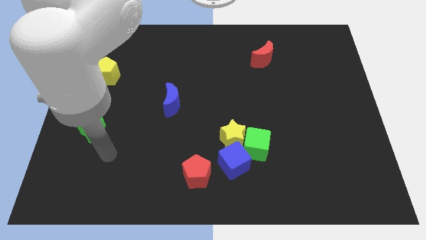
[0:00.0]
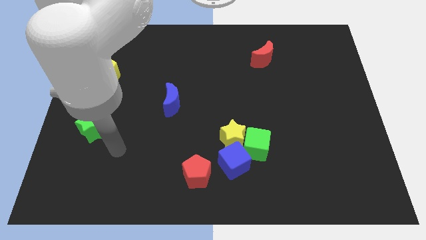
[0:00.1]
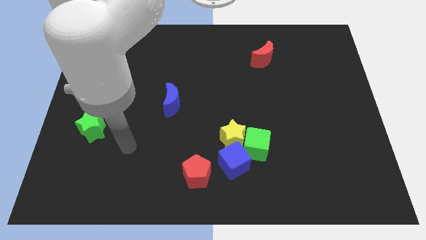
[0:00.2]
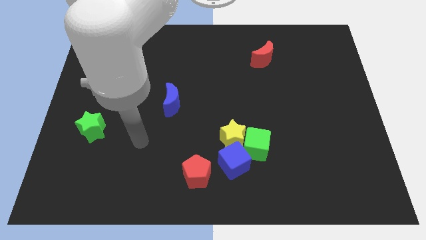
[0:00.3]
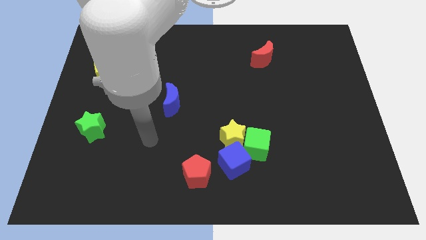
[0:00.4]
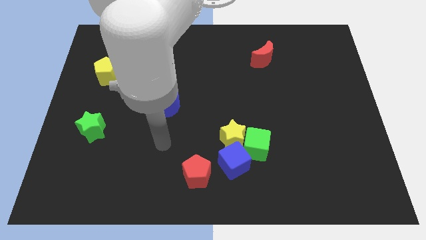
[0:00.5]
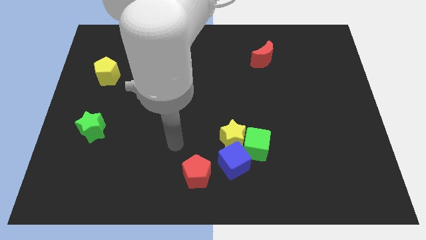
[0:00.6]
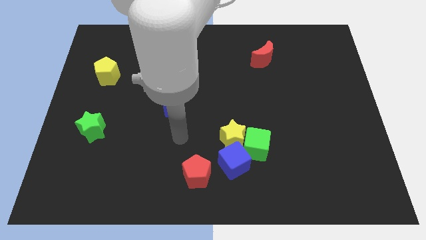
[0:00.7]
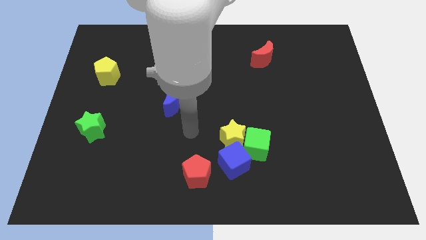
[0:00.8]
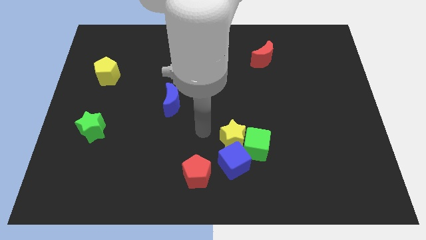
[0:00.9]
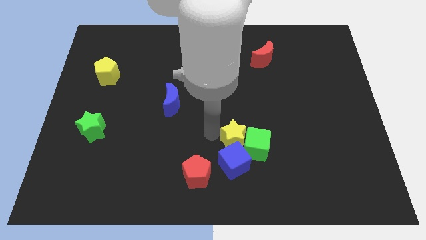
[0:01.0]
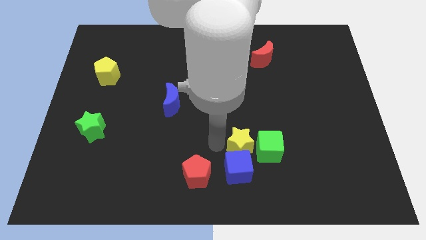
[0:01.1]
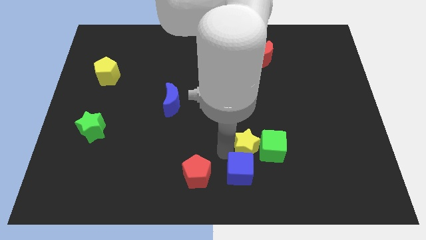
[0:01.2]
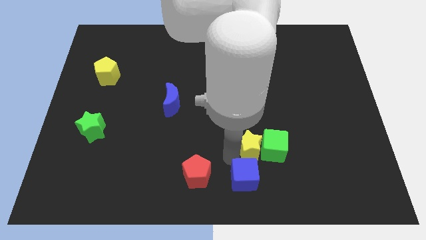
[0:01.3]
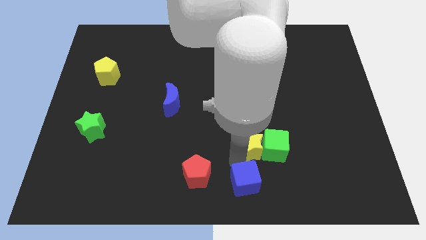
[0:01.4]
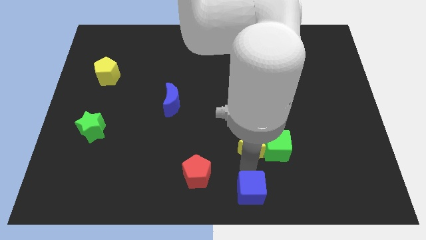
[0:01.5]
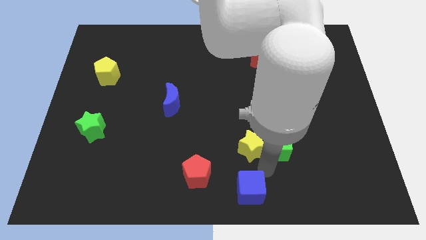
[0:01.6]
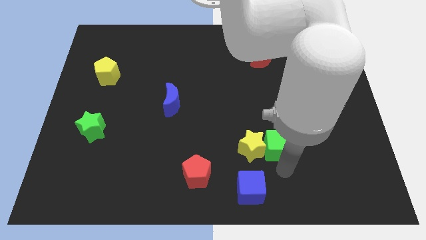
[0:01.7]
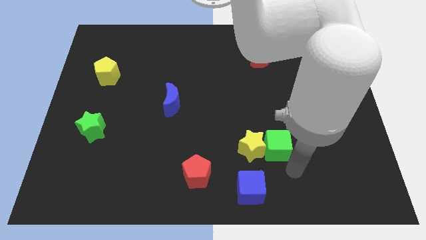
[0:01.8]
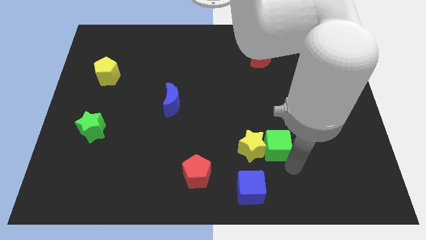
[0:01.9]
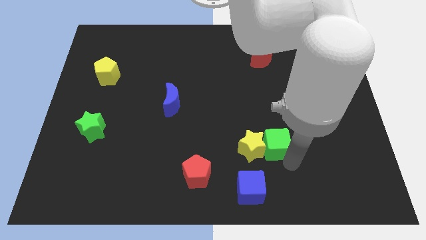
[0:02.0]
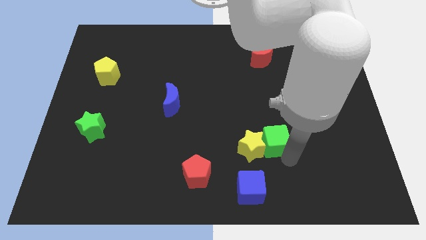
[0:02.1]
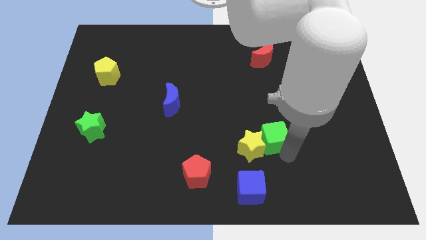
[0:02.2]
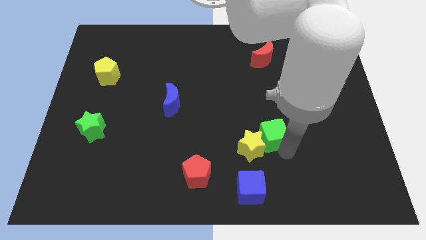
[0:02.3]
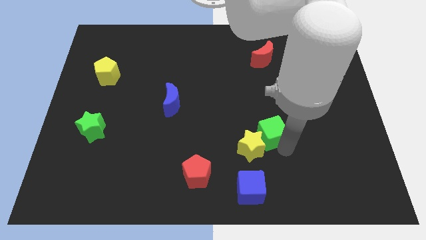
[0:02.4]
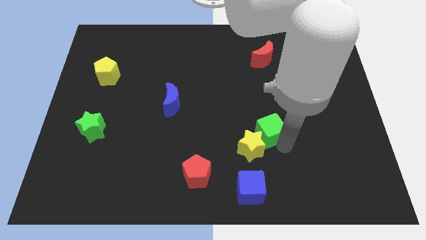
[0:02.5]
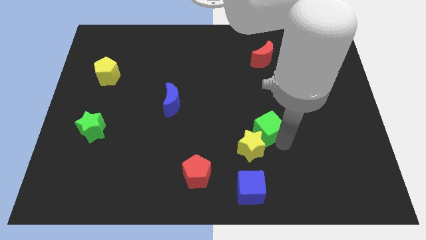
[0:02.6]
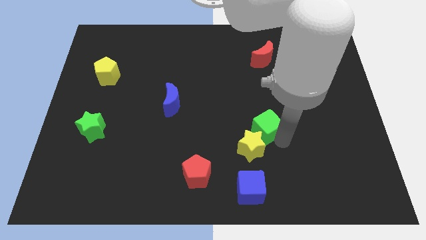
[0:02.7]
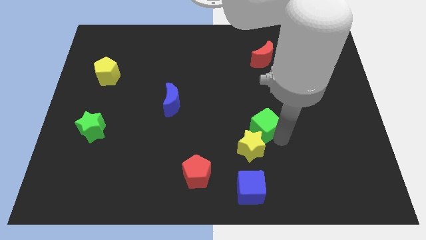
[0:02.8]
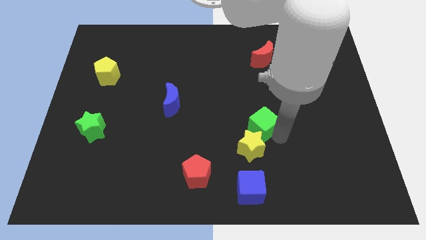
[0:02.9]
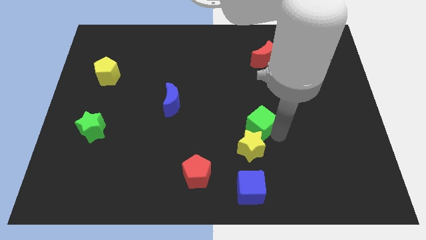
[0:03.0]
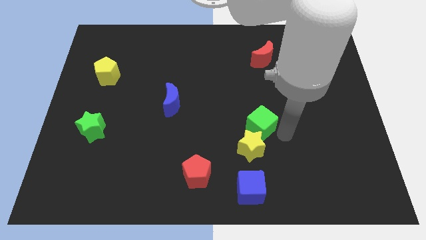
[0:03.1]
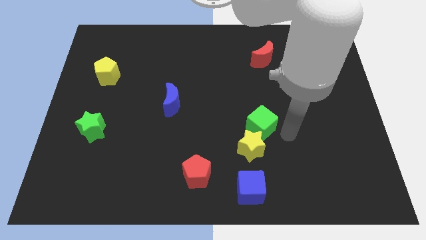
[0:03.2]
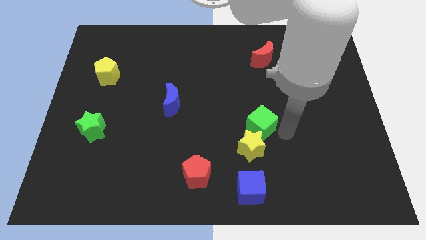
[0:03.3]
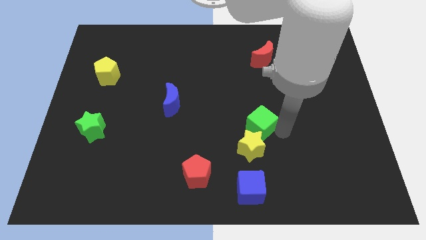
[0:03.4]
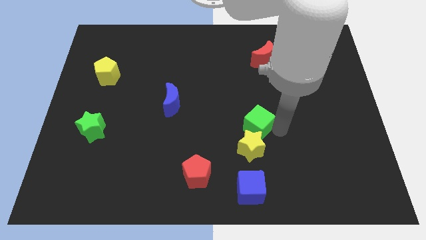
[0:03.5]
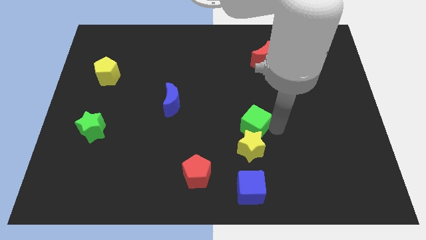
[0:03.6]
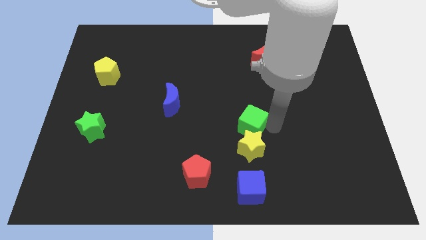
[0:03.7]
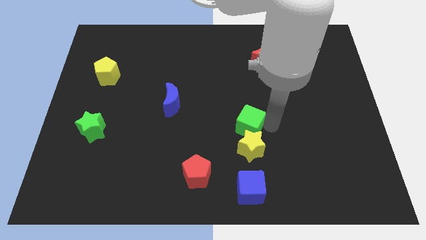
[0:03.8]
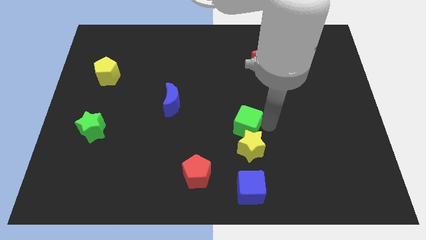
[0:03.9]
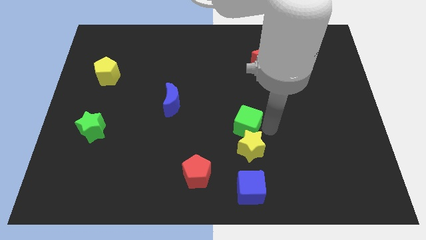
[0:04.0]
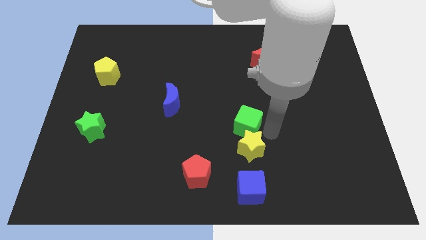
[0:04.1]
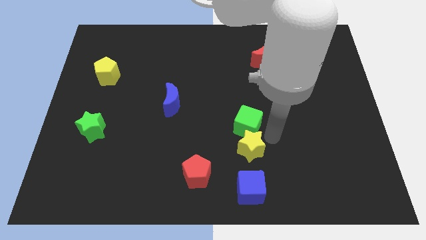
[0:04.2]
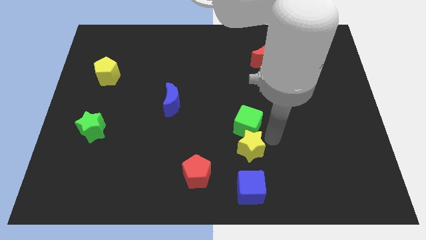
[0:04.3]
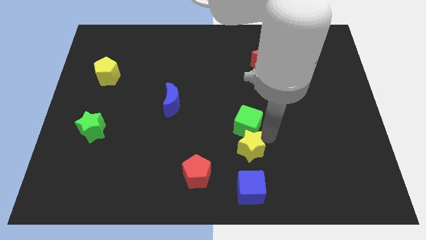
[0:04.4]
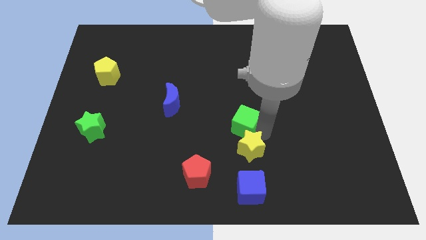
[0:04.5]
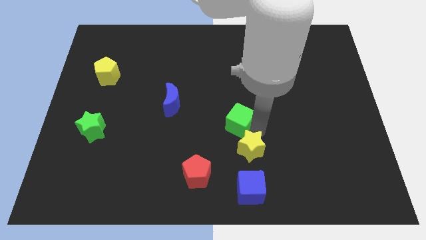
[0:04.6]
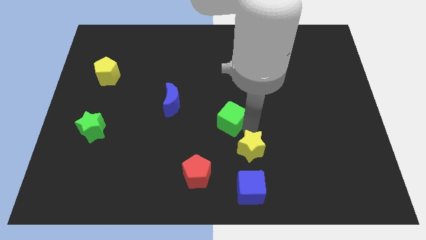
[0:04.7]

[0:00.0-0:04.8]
push the green cube somewhat up and then left

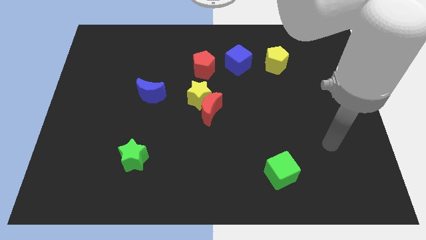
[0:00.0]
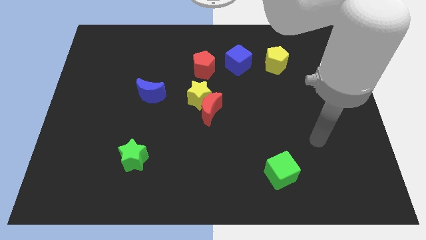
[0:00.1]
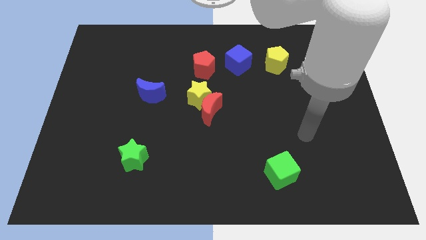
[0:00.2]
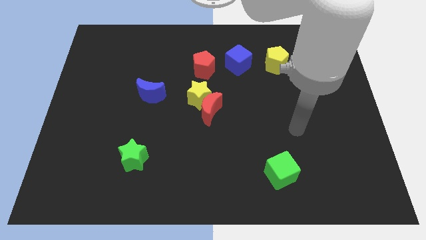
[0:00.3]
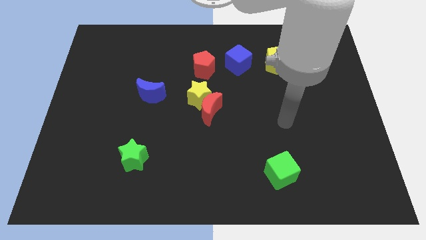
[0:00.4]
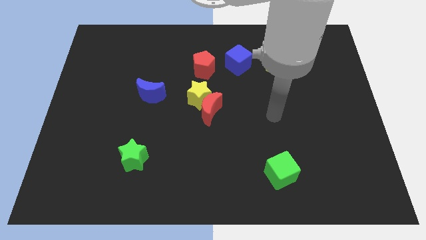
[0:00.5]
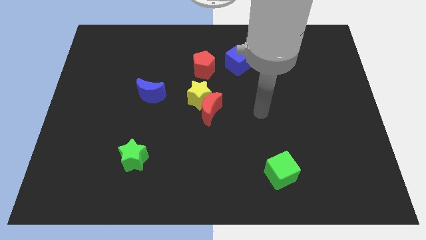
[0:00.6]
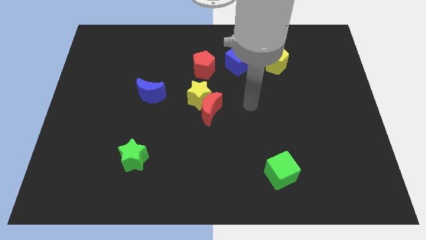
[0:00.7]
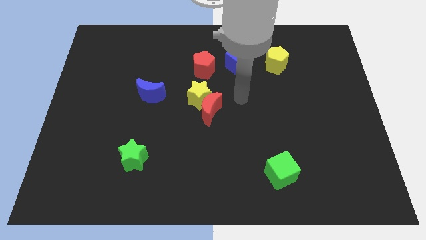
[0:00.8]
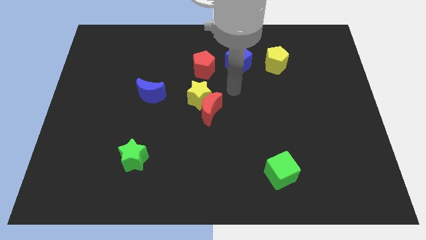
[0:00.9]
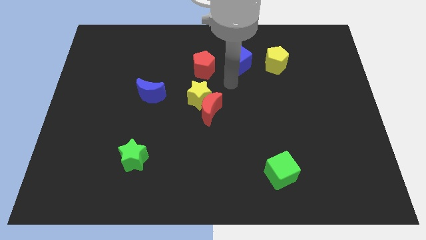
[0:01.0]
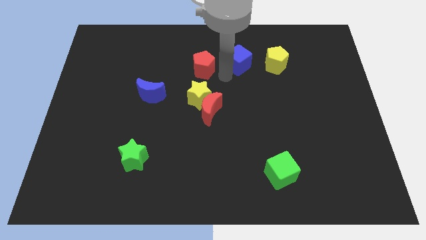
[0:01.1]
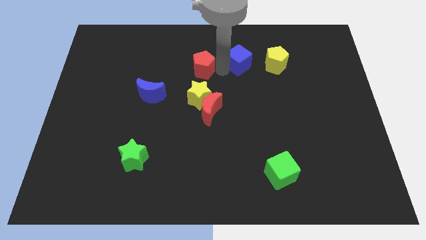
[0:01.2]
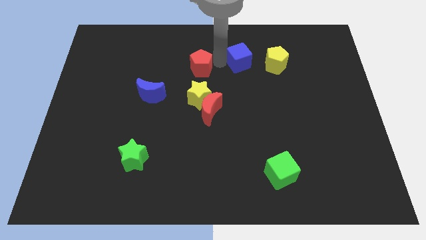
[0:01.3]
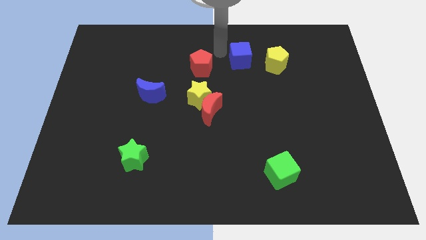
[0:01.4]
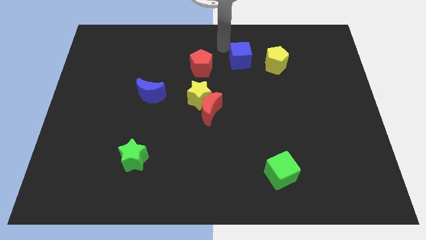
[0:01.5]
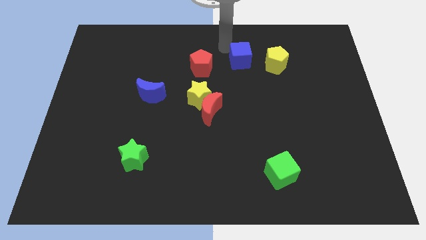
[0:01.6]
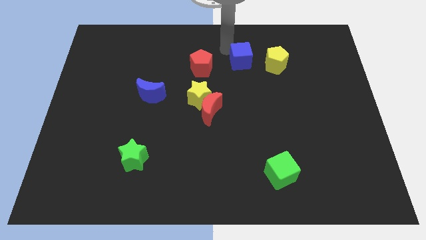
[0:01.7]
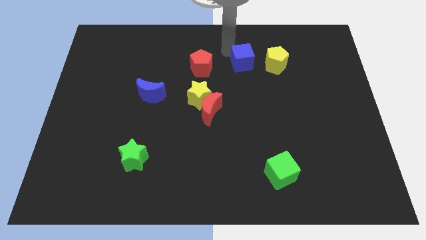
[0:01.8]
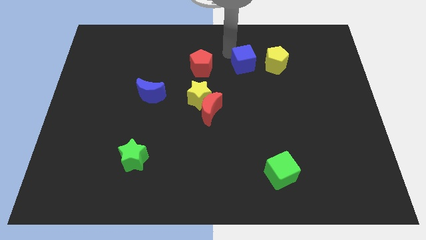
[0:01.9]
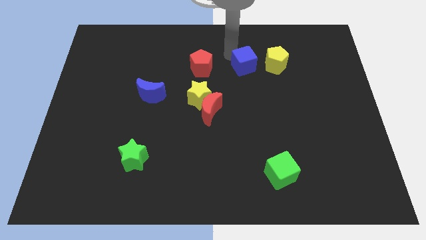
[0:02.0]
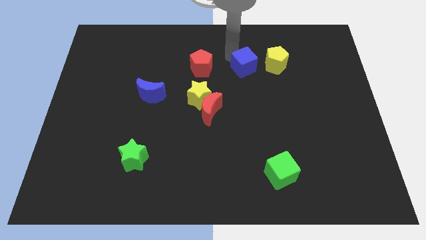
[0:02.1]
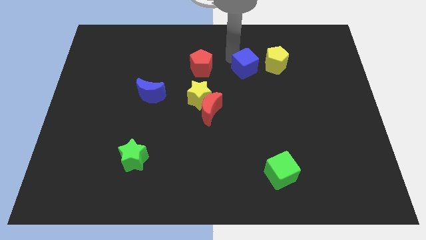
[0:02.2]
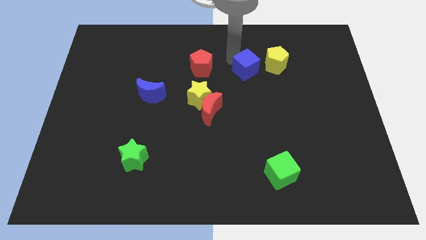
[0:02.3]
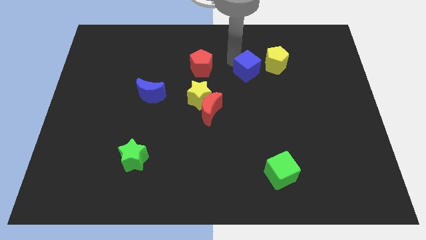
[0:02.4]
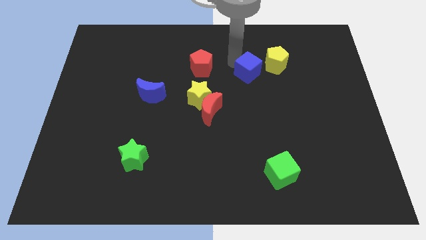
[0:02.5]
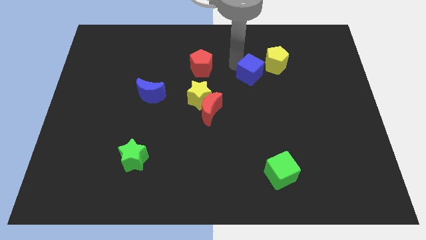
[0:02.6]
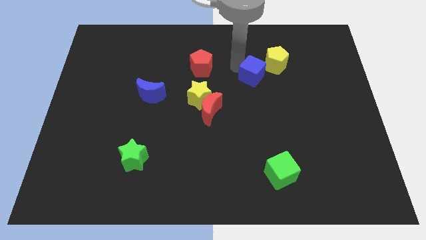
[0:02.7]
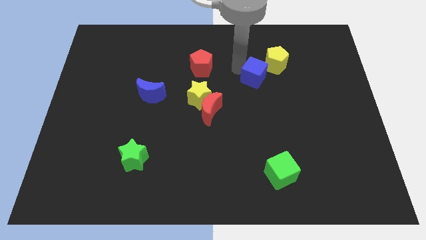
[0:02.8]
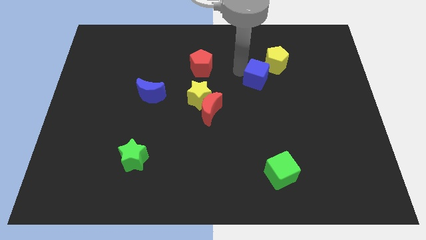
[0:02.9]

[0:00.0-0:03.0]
move the blue cube diagonally downwards and to the right a little bit
